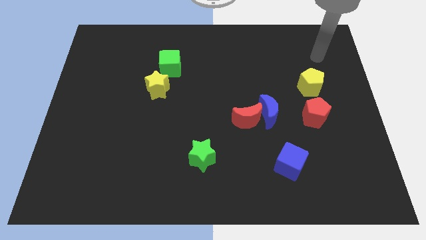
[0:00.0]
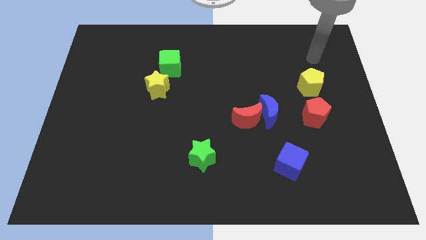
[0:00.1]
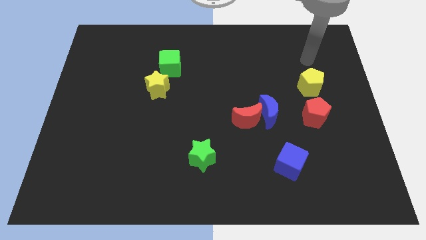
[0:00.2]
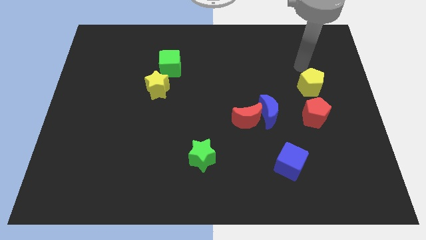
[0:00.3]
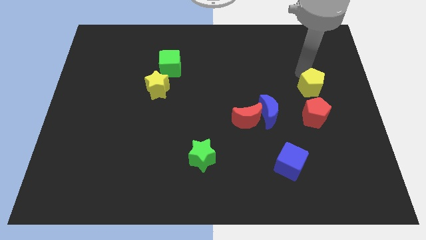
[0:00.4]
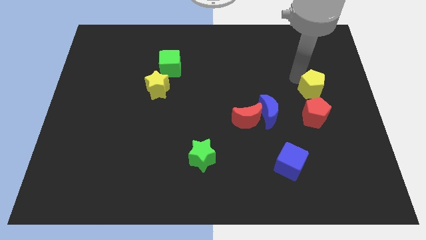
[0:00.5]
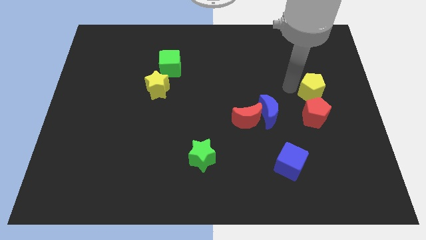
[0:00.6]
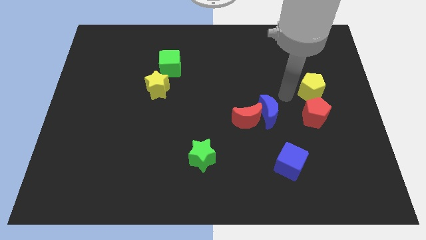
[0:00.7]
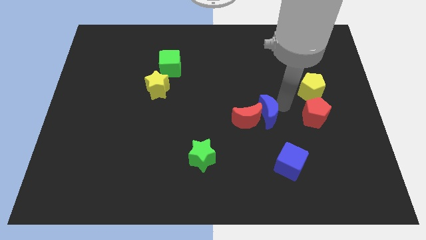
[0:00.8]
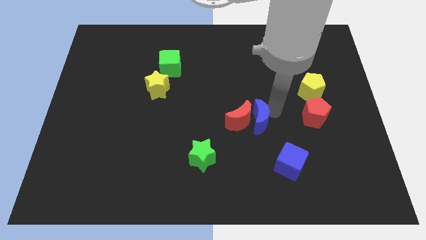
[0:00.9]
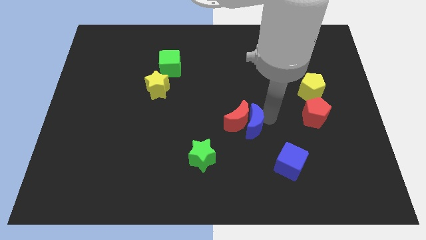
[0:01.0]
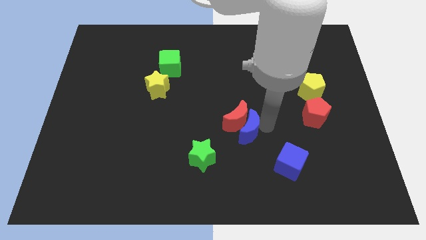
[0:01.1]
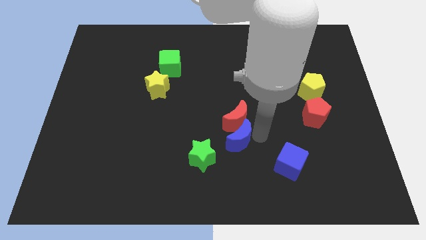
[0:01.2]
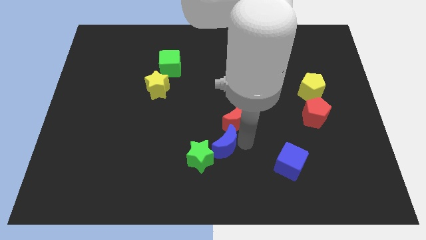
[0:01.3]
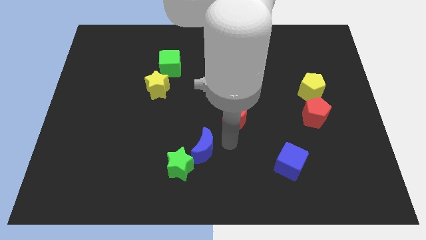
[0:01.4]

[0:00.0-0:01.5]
pull the red moon apart from the blue moon

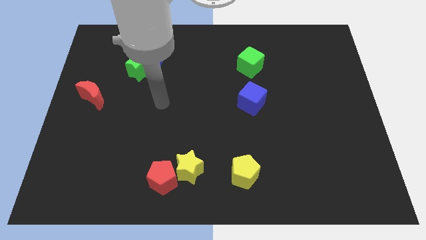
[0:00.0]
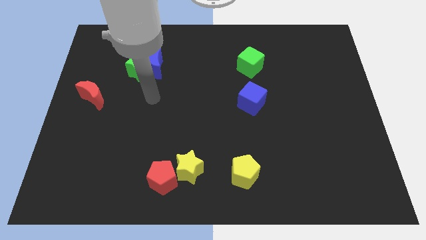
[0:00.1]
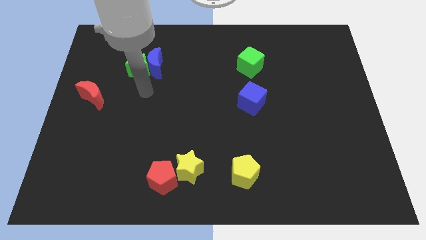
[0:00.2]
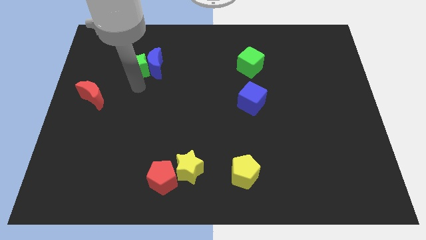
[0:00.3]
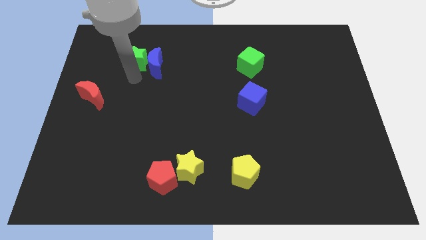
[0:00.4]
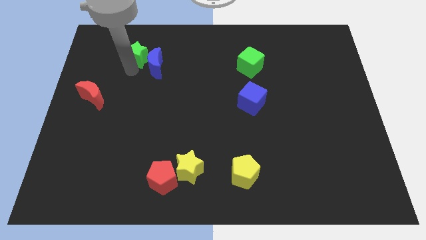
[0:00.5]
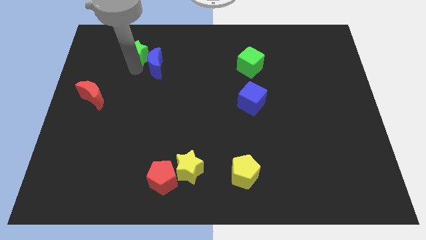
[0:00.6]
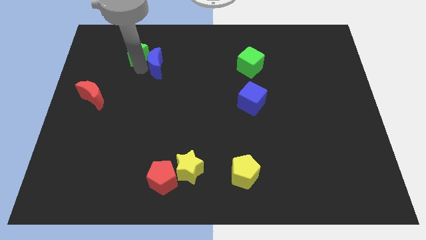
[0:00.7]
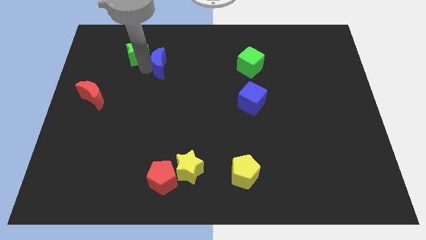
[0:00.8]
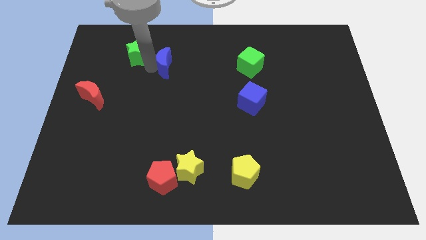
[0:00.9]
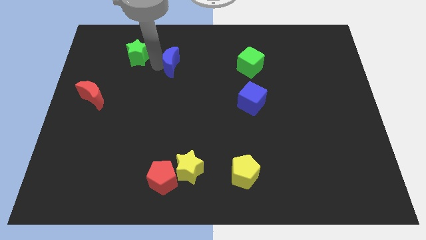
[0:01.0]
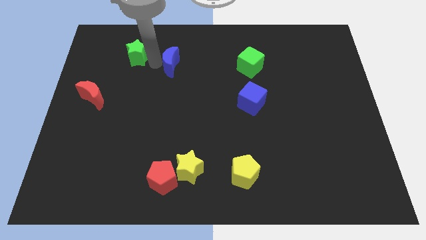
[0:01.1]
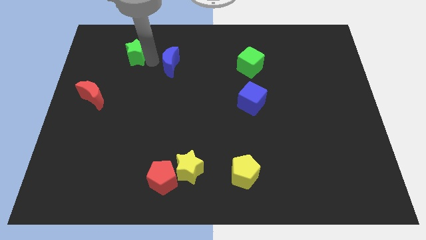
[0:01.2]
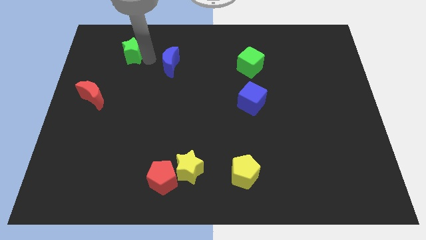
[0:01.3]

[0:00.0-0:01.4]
separate the blue moon from the green star

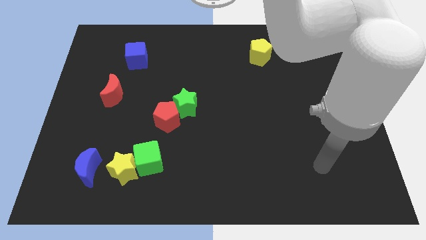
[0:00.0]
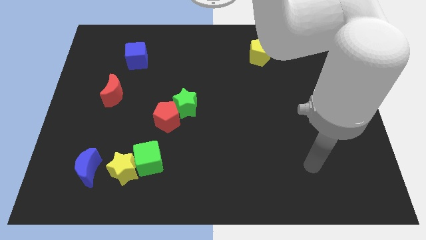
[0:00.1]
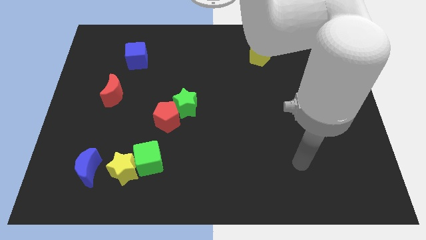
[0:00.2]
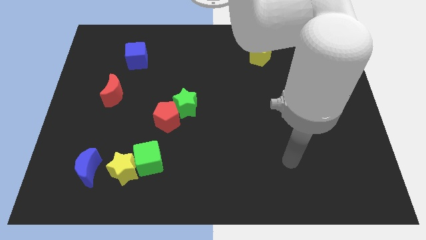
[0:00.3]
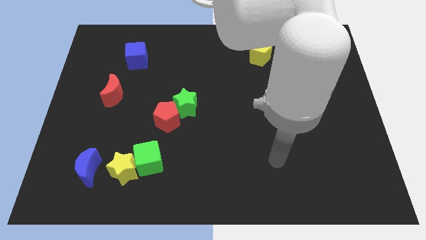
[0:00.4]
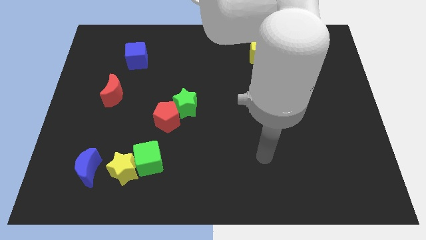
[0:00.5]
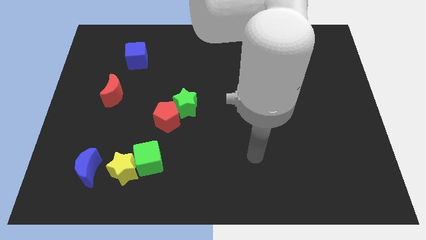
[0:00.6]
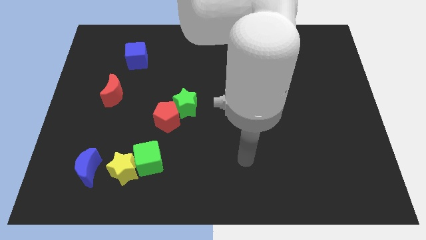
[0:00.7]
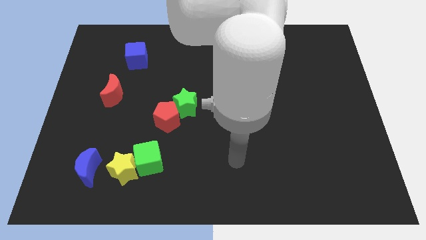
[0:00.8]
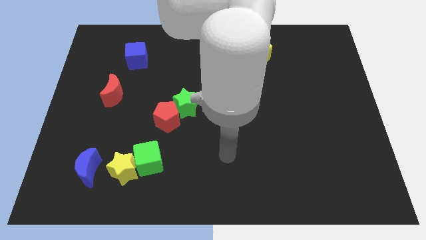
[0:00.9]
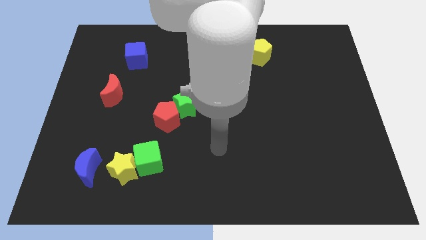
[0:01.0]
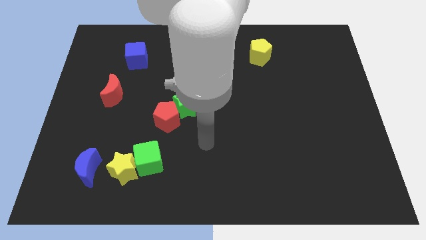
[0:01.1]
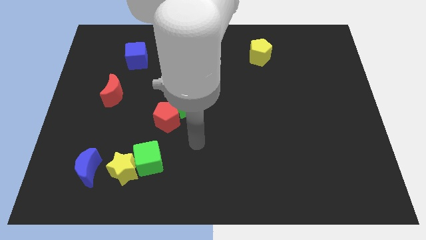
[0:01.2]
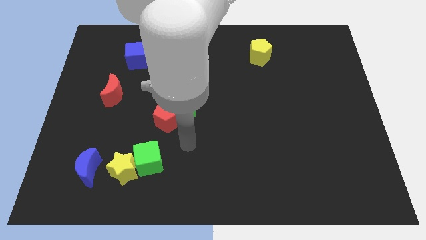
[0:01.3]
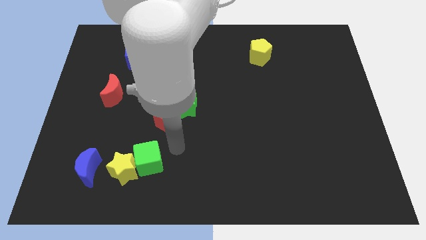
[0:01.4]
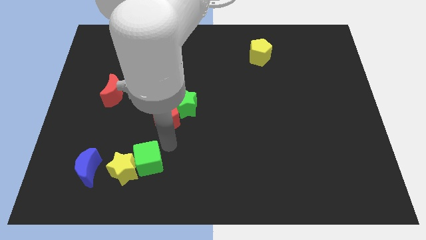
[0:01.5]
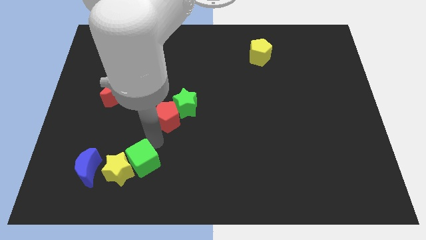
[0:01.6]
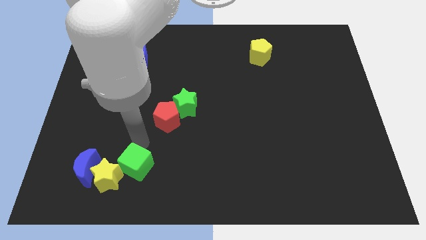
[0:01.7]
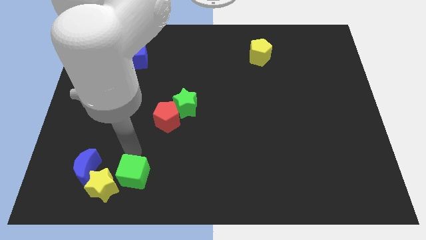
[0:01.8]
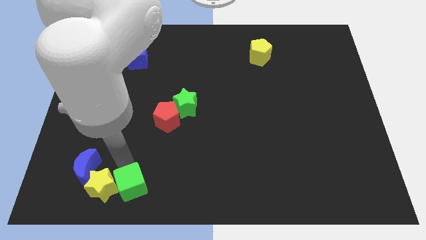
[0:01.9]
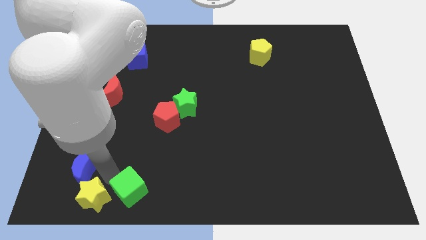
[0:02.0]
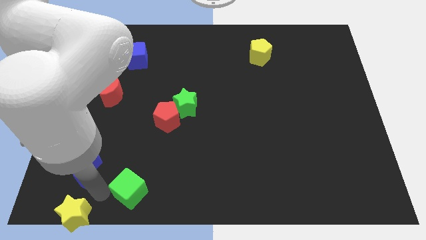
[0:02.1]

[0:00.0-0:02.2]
separate the green cube from the yellow star

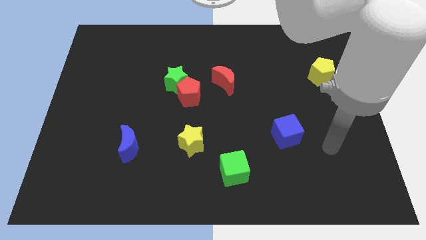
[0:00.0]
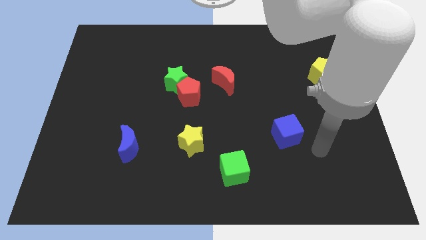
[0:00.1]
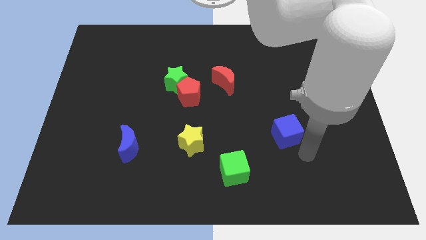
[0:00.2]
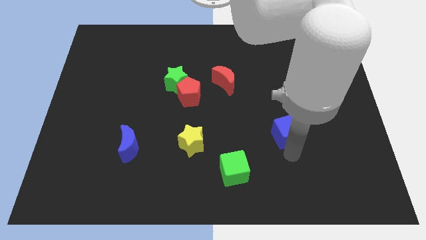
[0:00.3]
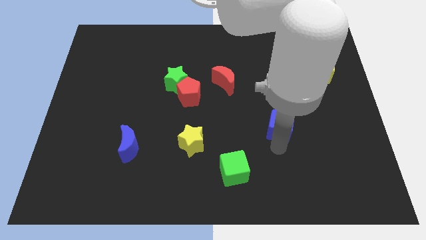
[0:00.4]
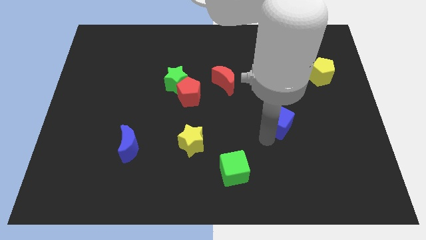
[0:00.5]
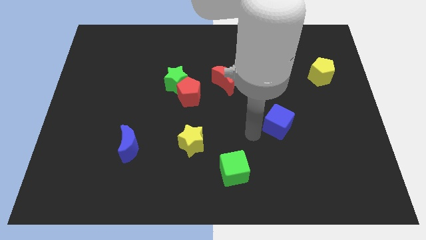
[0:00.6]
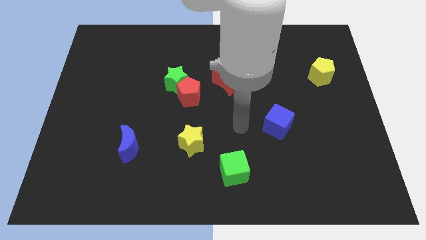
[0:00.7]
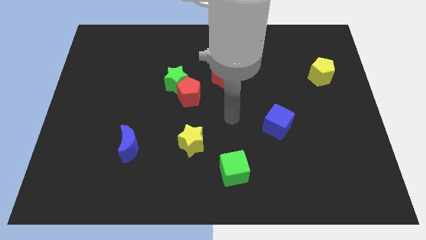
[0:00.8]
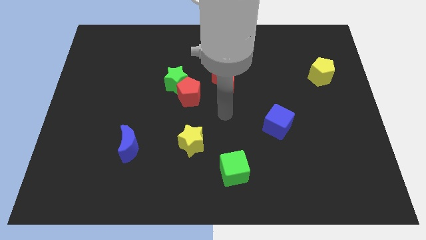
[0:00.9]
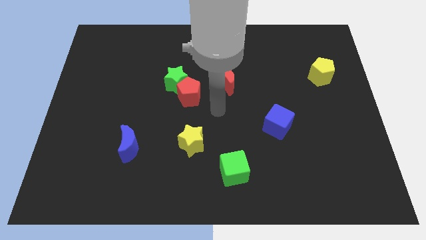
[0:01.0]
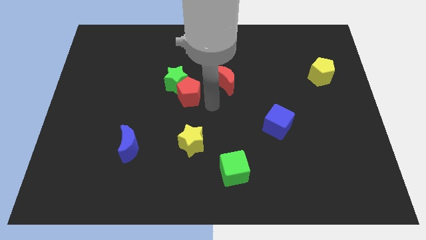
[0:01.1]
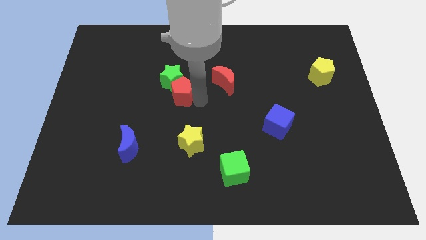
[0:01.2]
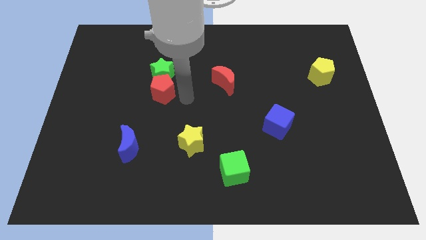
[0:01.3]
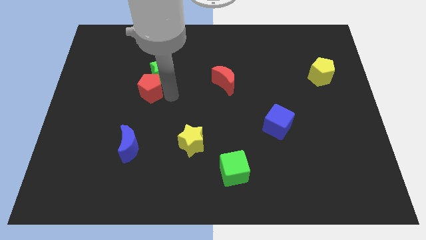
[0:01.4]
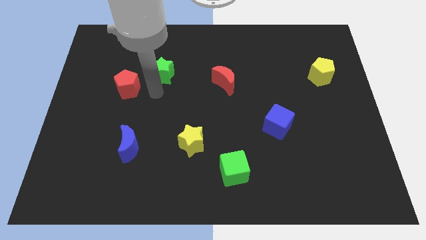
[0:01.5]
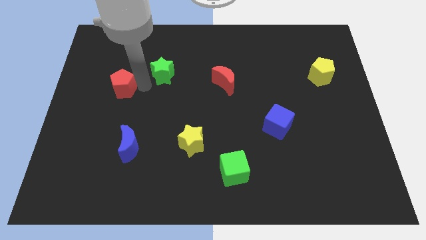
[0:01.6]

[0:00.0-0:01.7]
separate the green star from the red pentagon

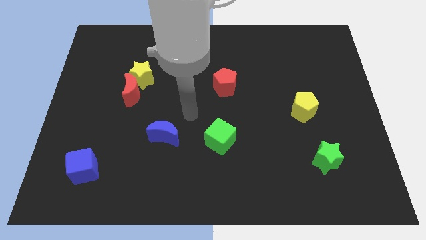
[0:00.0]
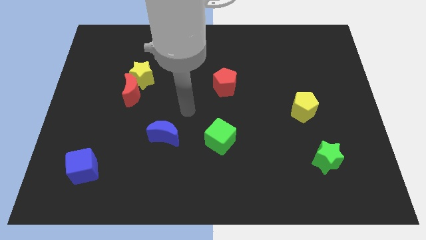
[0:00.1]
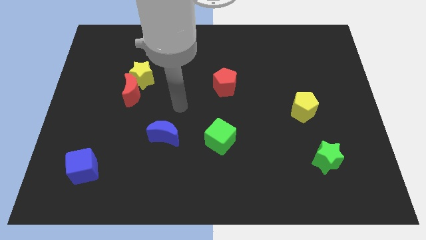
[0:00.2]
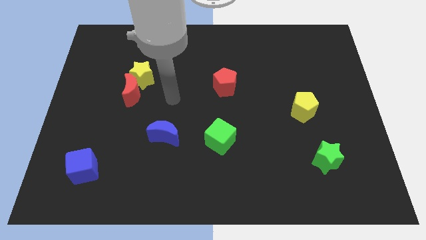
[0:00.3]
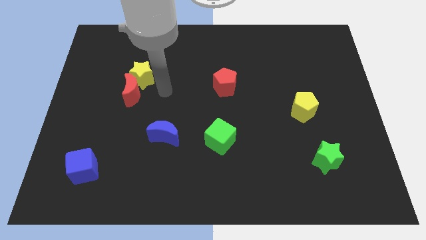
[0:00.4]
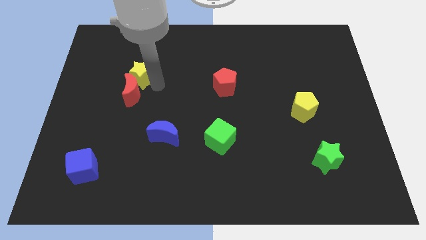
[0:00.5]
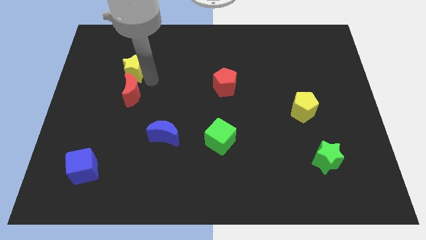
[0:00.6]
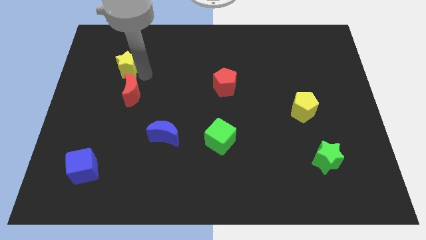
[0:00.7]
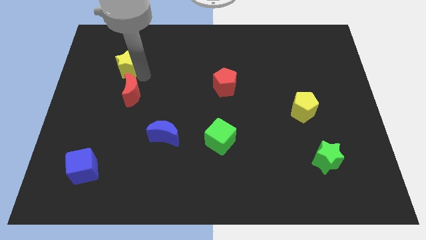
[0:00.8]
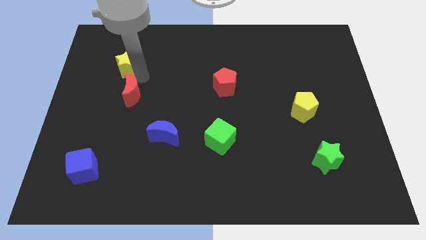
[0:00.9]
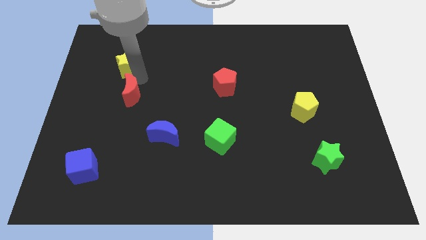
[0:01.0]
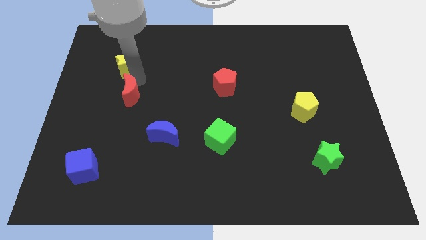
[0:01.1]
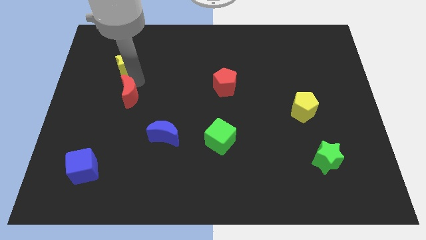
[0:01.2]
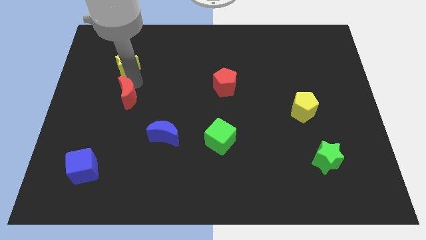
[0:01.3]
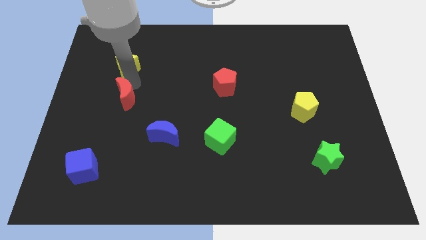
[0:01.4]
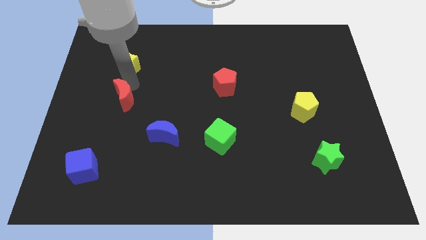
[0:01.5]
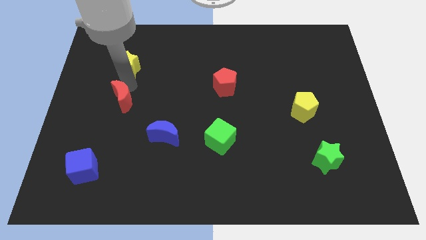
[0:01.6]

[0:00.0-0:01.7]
pull the red moon apart from the yellow star

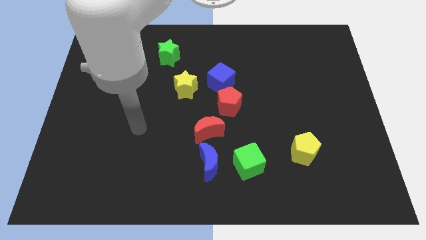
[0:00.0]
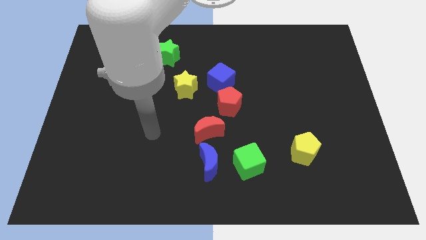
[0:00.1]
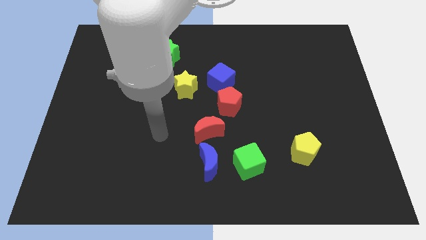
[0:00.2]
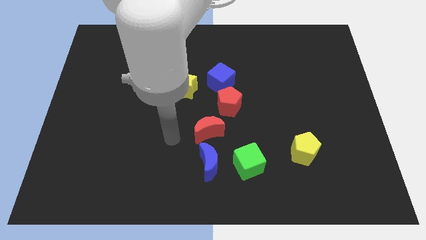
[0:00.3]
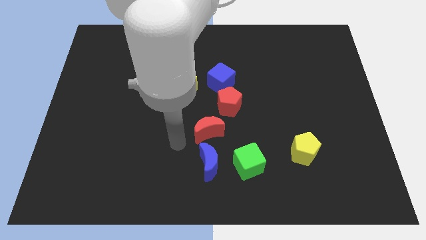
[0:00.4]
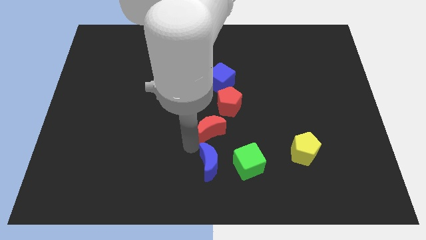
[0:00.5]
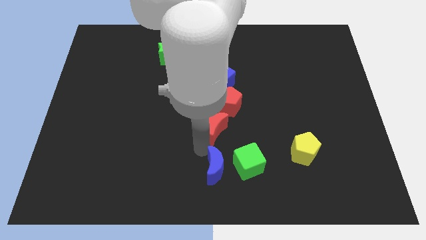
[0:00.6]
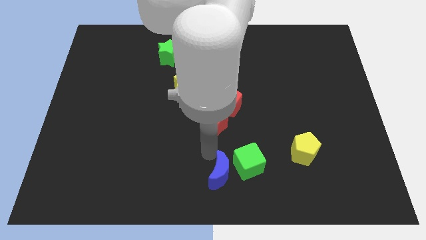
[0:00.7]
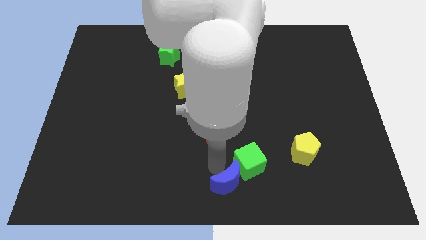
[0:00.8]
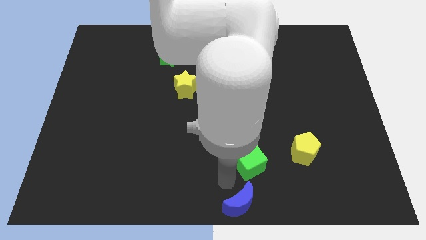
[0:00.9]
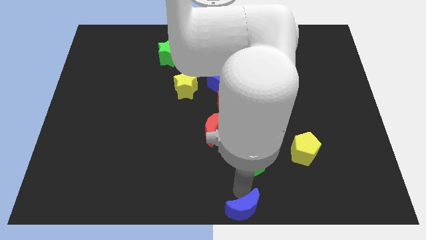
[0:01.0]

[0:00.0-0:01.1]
separate the green cube from the blue moon
